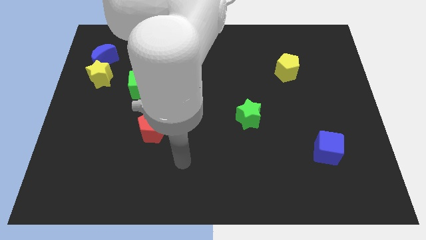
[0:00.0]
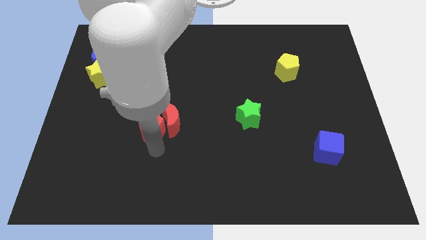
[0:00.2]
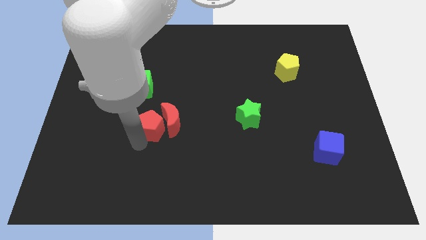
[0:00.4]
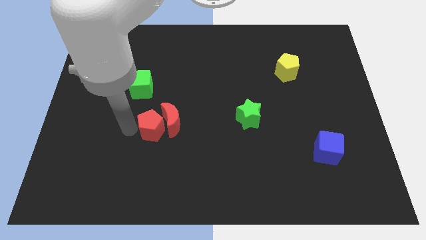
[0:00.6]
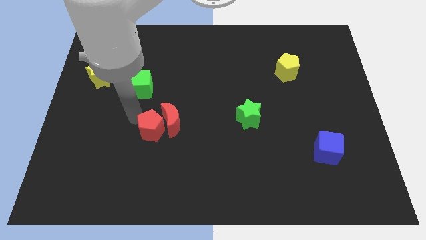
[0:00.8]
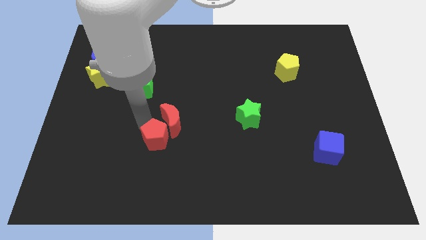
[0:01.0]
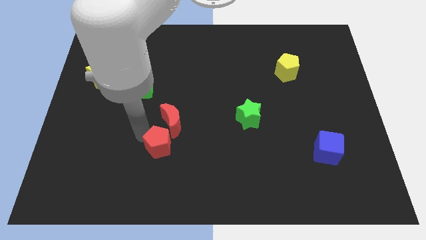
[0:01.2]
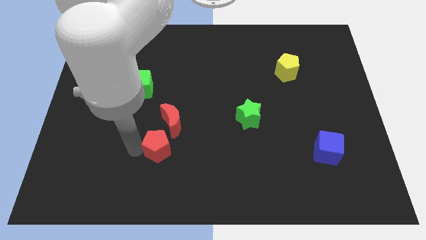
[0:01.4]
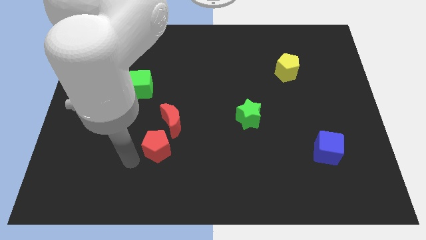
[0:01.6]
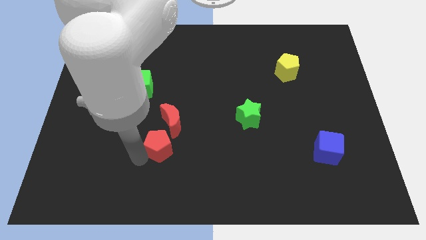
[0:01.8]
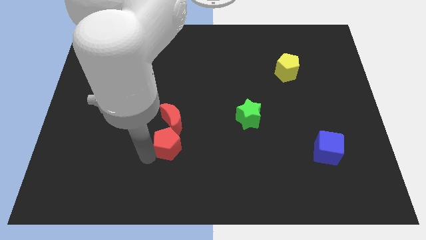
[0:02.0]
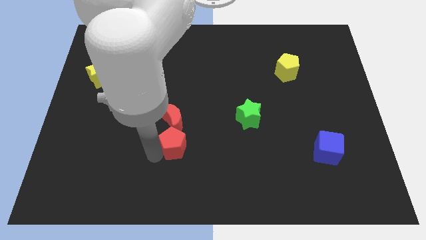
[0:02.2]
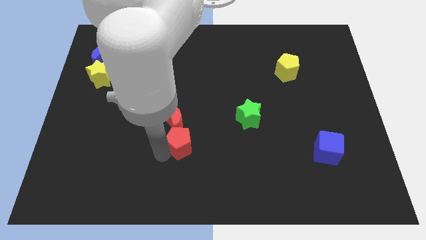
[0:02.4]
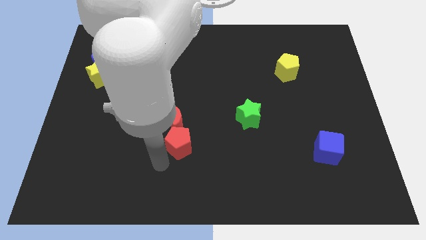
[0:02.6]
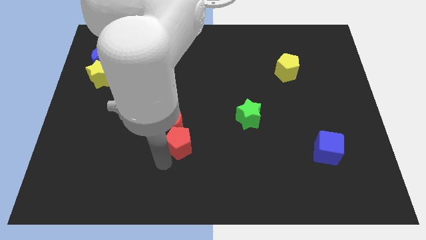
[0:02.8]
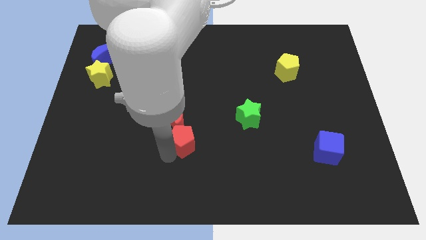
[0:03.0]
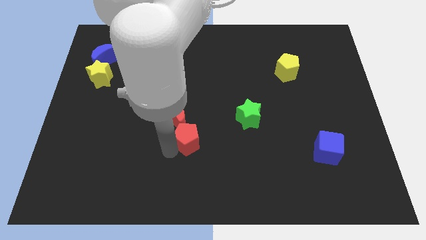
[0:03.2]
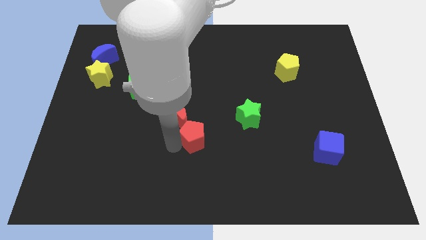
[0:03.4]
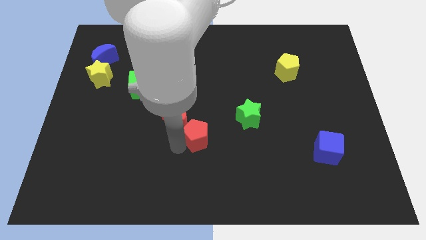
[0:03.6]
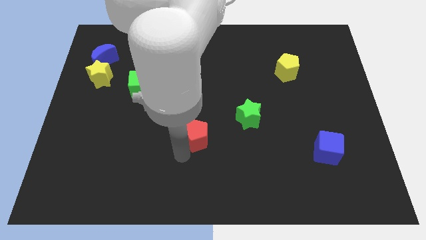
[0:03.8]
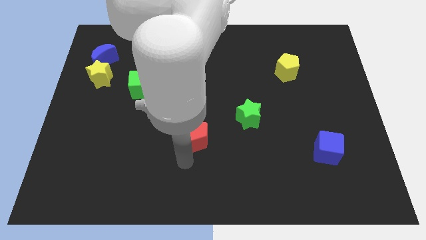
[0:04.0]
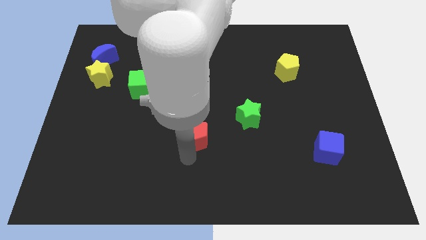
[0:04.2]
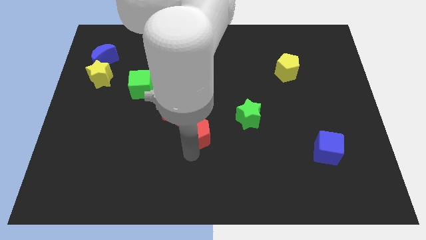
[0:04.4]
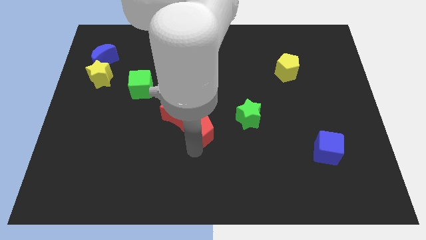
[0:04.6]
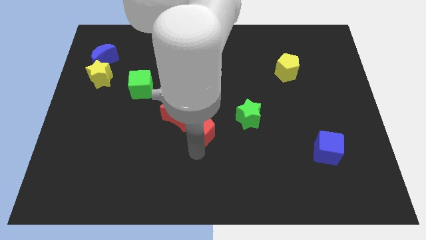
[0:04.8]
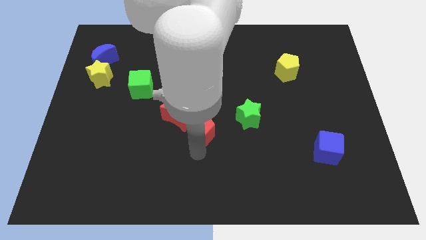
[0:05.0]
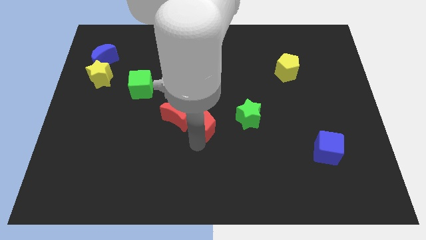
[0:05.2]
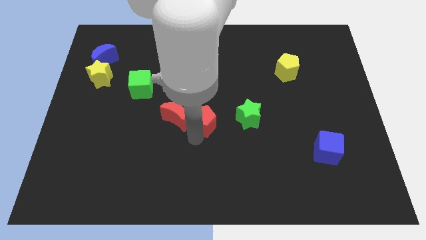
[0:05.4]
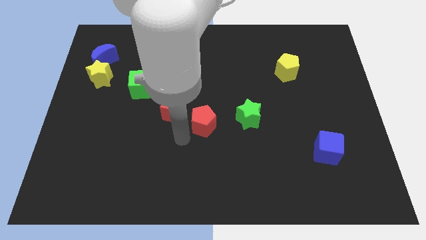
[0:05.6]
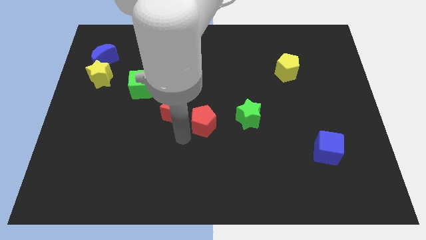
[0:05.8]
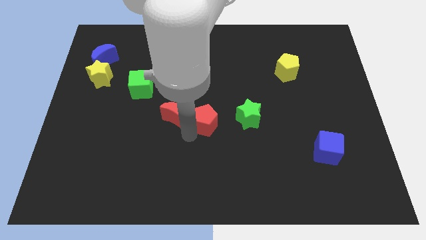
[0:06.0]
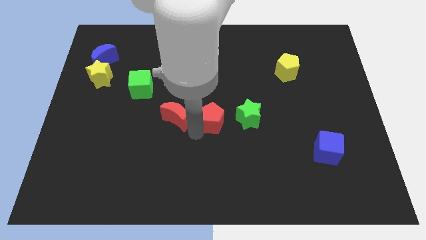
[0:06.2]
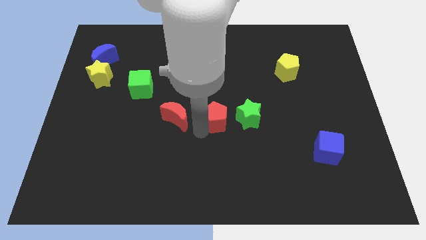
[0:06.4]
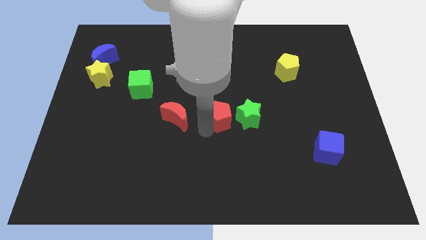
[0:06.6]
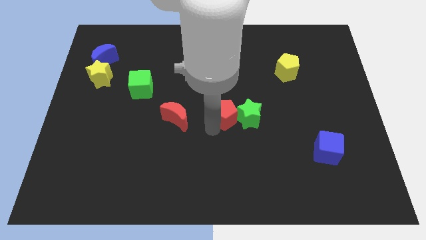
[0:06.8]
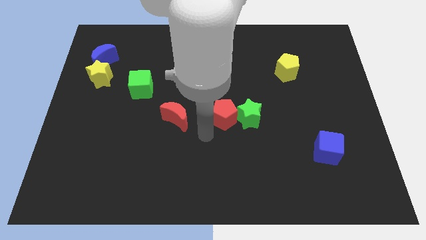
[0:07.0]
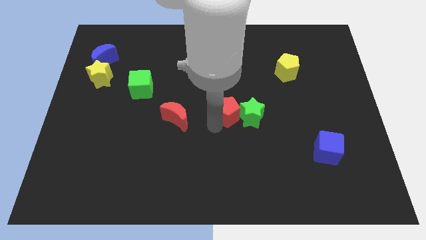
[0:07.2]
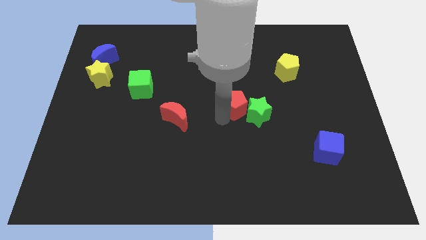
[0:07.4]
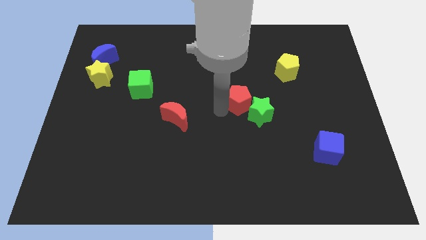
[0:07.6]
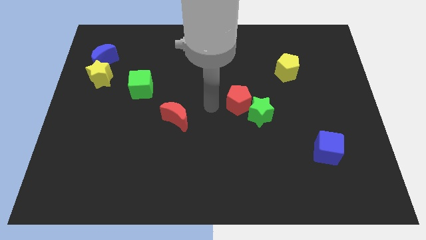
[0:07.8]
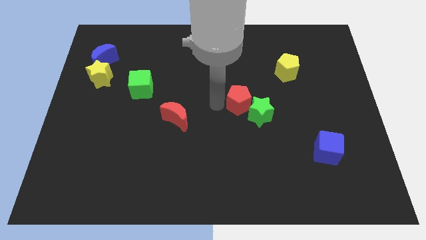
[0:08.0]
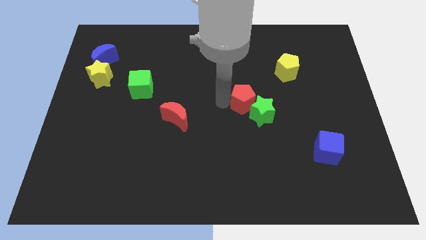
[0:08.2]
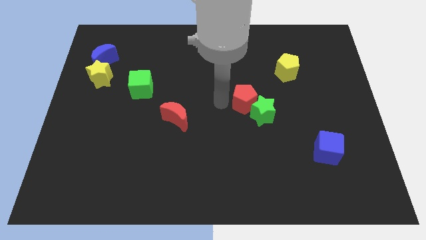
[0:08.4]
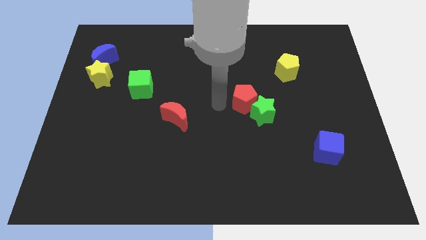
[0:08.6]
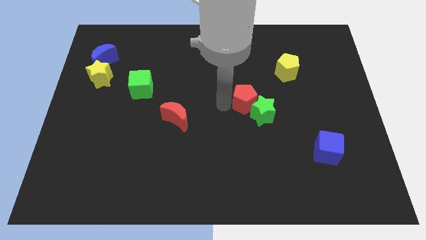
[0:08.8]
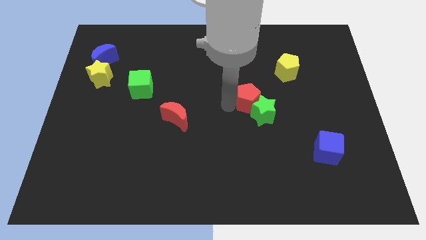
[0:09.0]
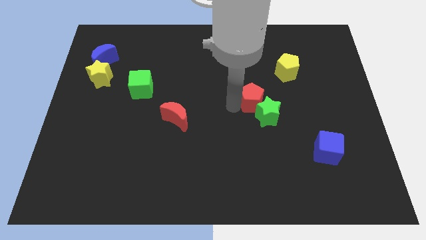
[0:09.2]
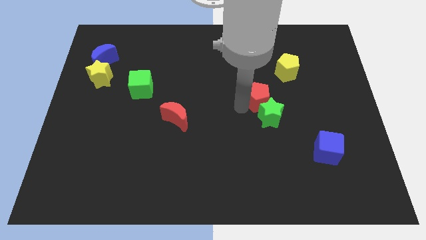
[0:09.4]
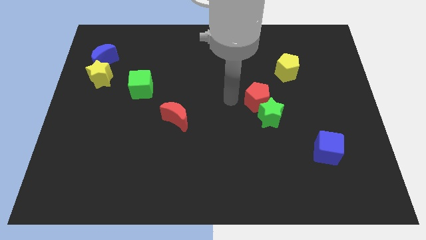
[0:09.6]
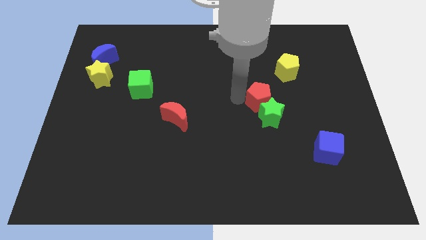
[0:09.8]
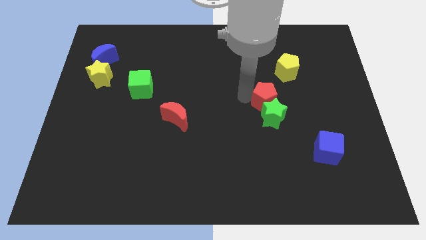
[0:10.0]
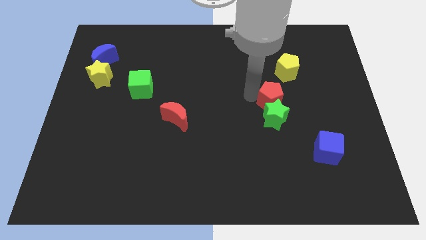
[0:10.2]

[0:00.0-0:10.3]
slide the red pentagon to the bottom side of the yellow pentagon
